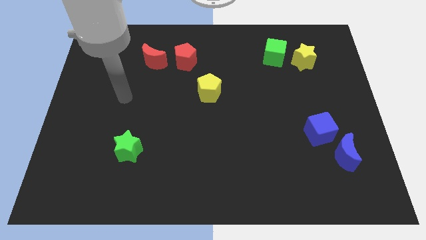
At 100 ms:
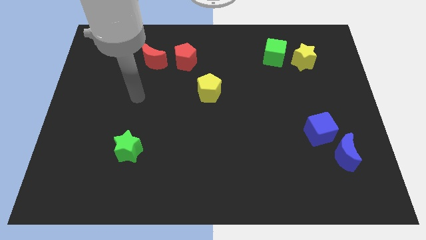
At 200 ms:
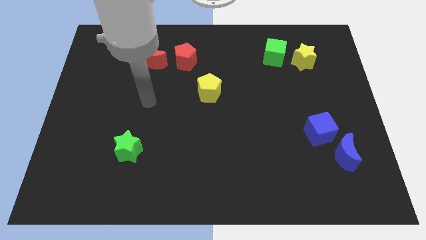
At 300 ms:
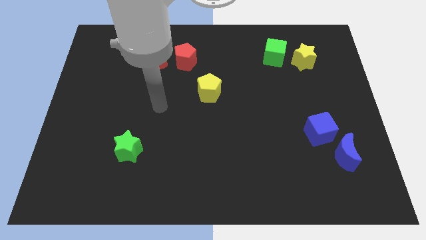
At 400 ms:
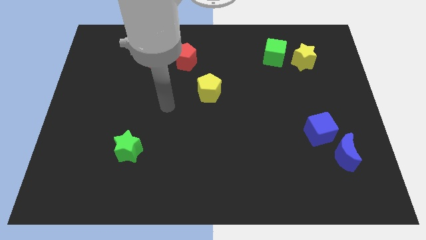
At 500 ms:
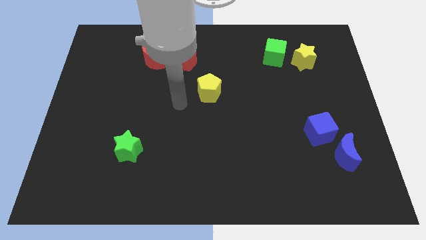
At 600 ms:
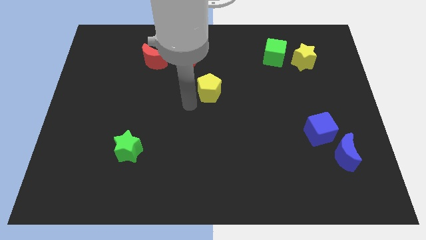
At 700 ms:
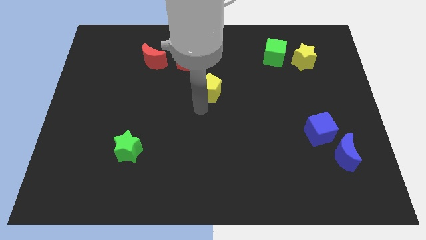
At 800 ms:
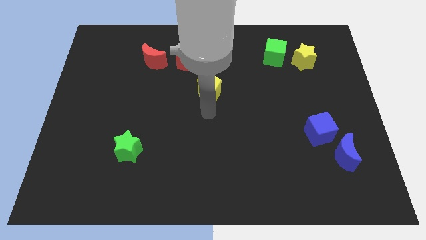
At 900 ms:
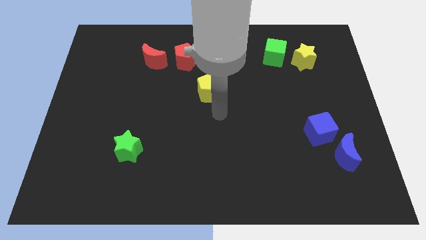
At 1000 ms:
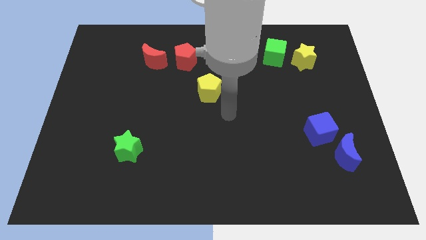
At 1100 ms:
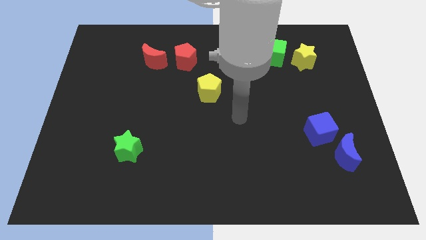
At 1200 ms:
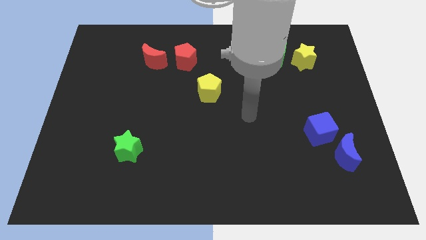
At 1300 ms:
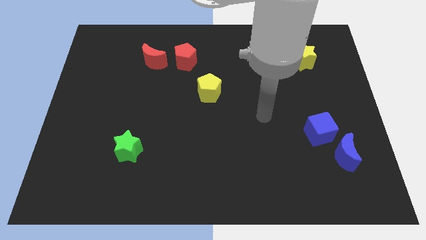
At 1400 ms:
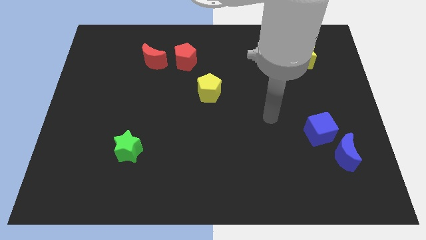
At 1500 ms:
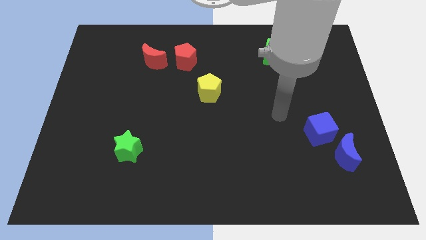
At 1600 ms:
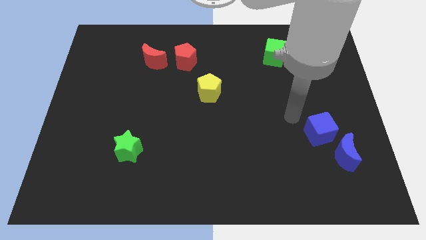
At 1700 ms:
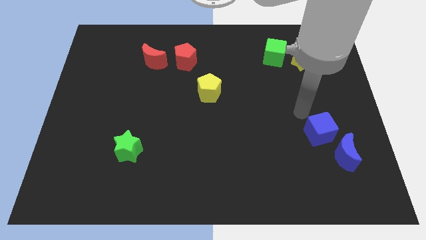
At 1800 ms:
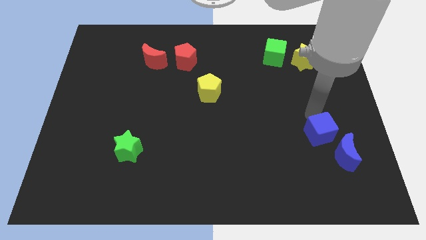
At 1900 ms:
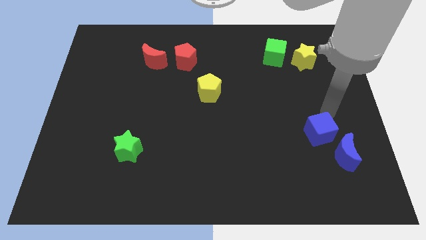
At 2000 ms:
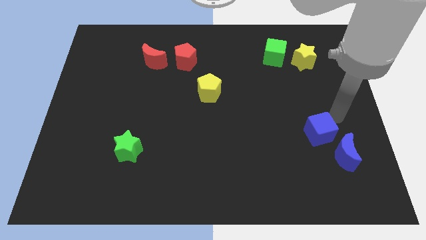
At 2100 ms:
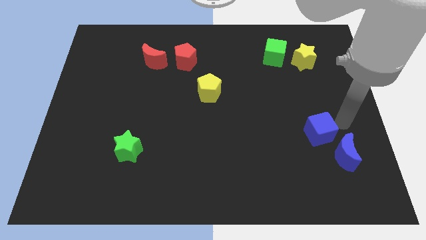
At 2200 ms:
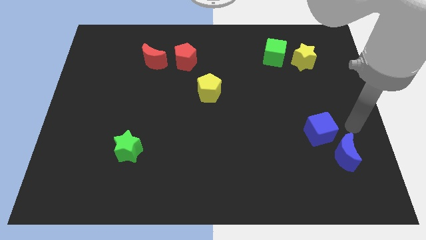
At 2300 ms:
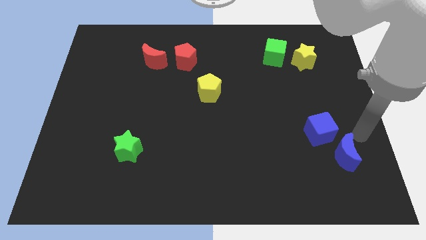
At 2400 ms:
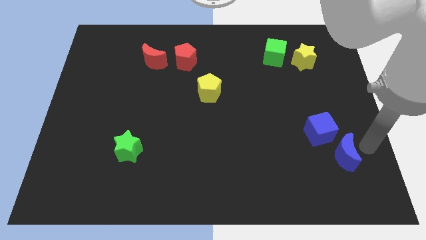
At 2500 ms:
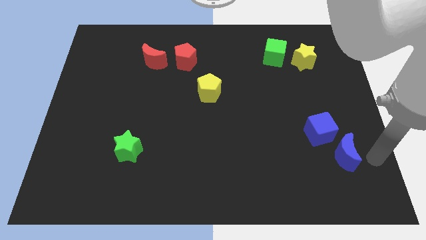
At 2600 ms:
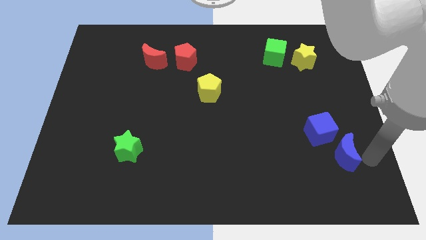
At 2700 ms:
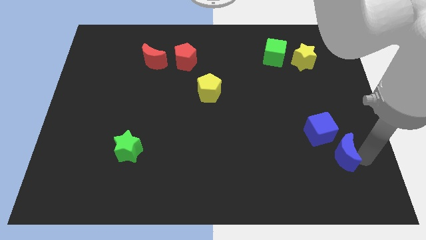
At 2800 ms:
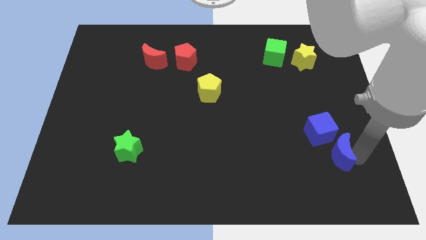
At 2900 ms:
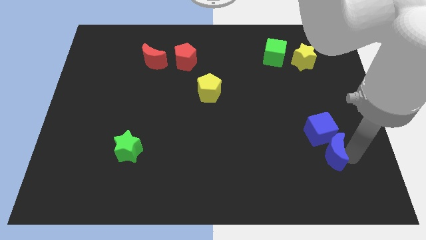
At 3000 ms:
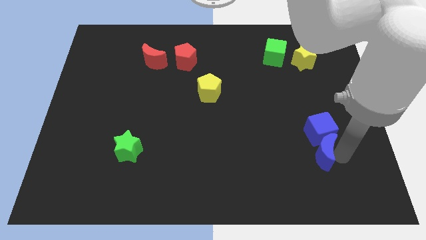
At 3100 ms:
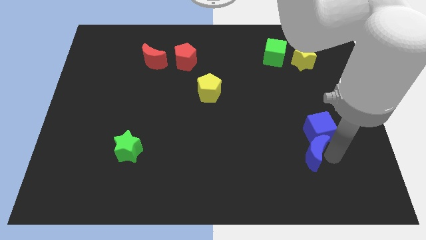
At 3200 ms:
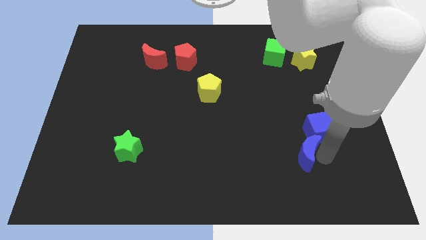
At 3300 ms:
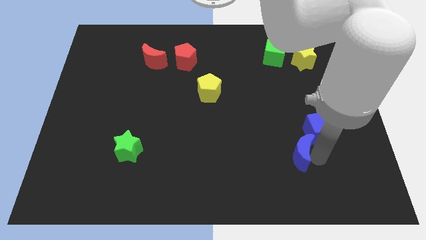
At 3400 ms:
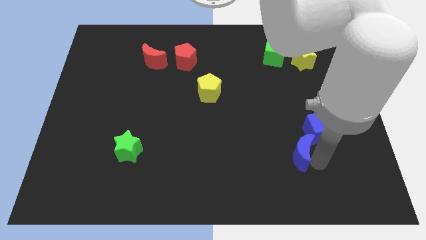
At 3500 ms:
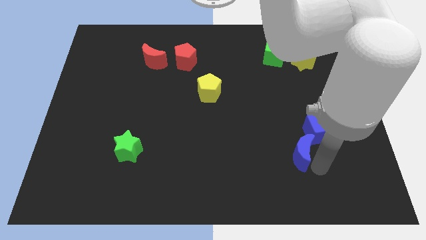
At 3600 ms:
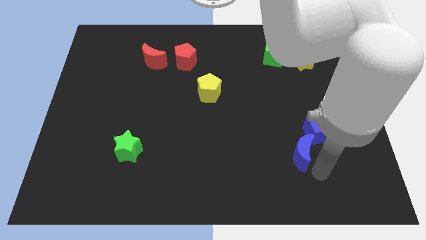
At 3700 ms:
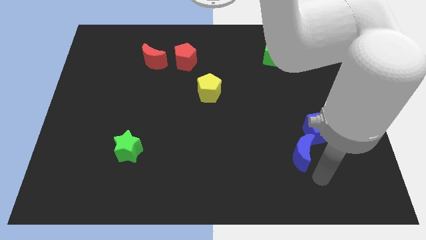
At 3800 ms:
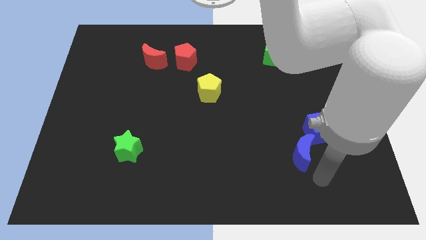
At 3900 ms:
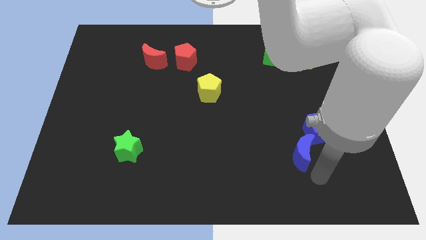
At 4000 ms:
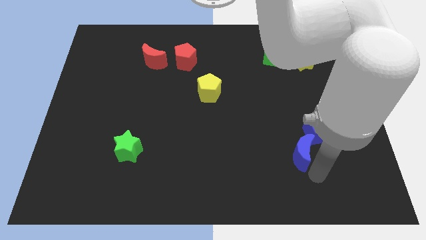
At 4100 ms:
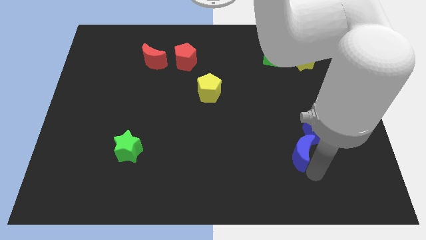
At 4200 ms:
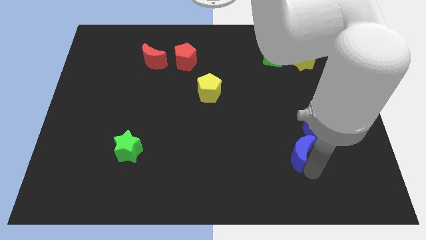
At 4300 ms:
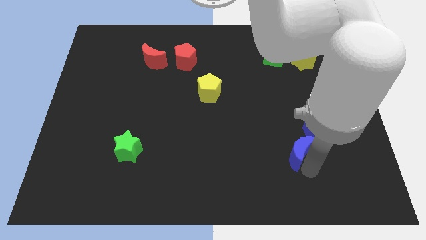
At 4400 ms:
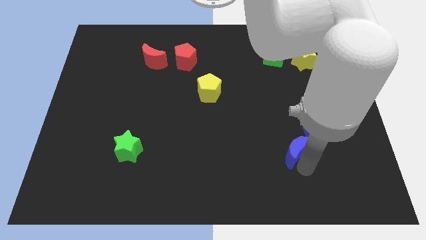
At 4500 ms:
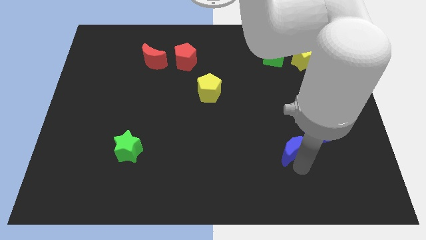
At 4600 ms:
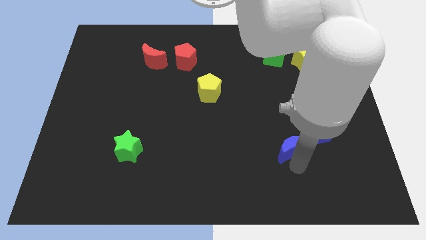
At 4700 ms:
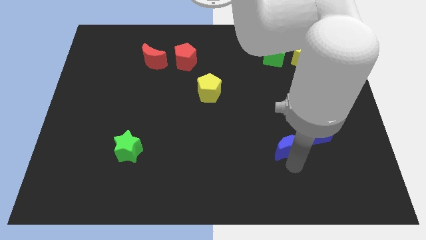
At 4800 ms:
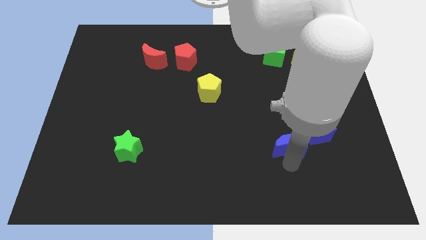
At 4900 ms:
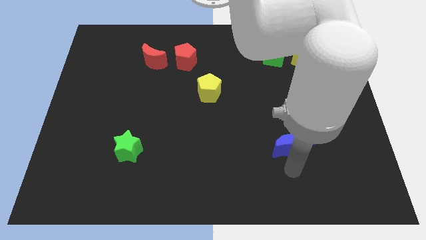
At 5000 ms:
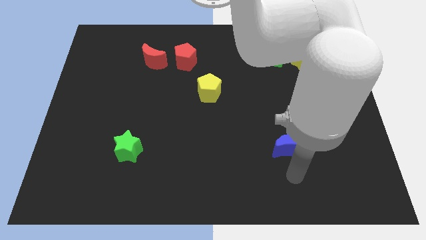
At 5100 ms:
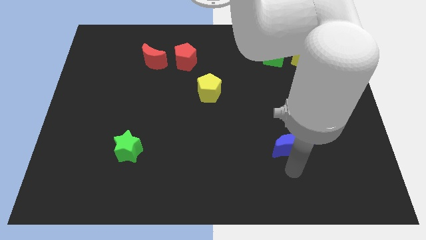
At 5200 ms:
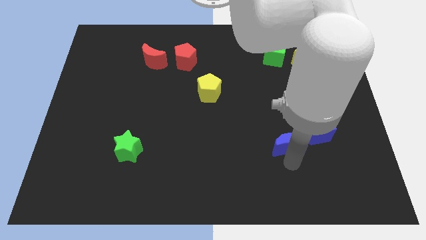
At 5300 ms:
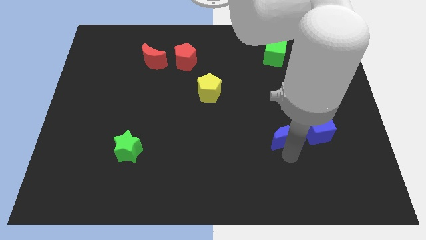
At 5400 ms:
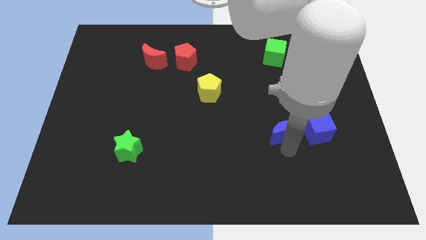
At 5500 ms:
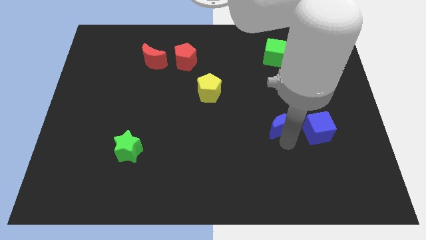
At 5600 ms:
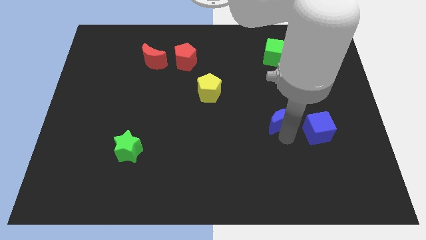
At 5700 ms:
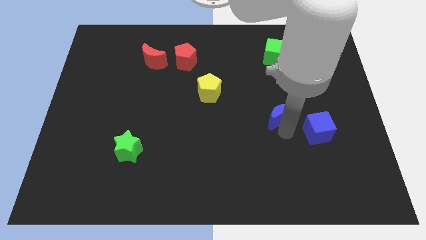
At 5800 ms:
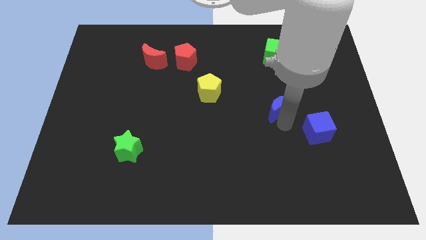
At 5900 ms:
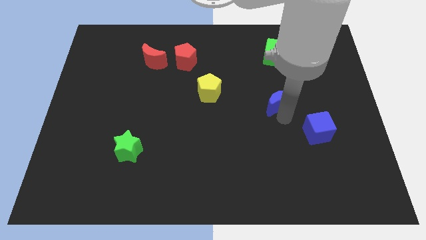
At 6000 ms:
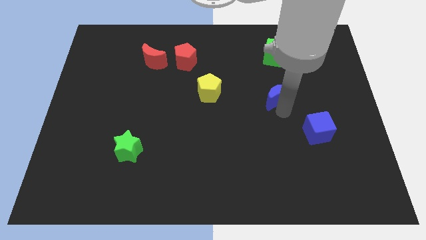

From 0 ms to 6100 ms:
push the blue moon diagonally upwards and left

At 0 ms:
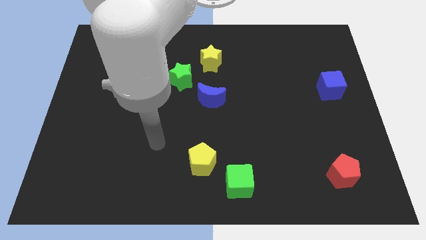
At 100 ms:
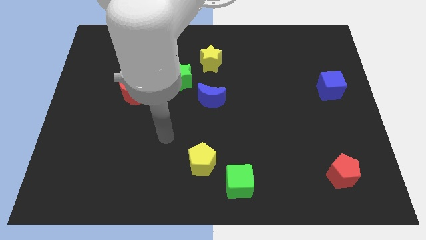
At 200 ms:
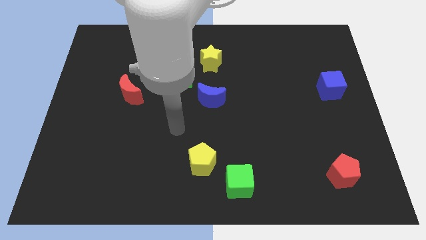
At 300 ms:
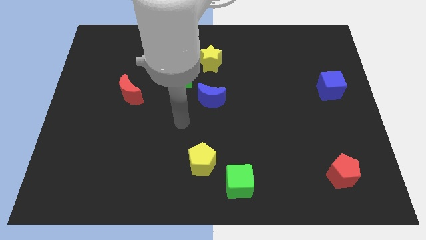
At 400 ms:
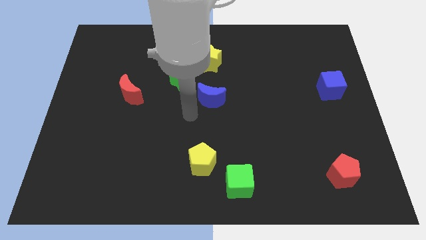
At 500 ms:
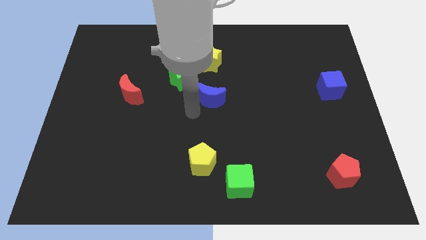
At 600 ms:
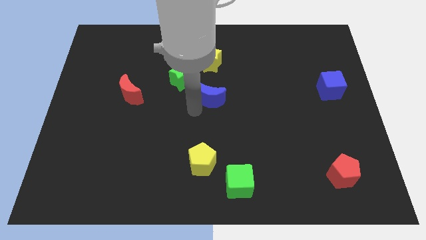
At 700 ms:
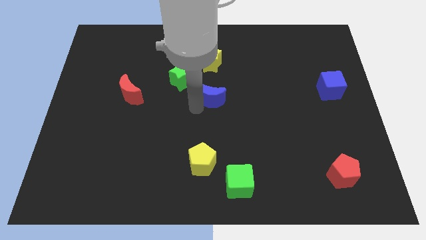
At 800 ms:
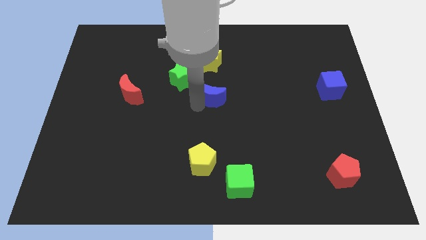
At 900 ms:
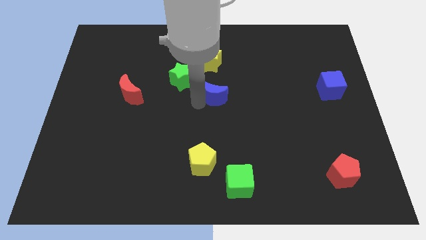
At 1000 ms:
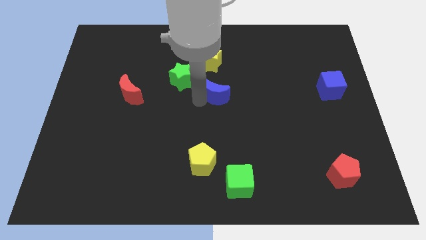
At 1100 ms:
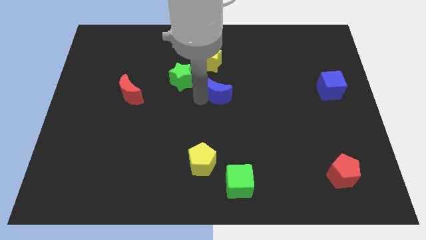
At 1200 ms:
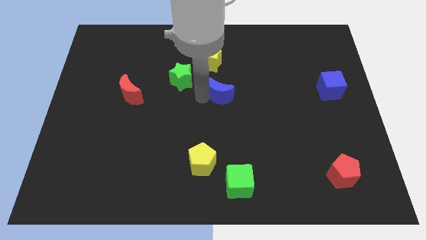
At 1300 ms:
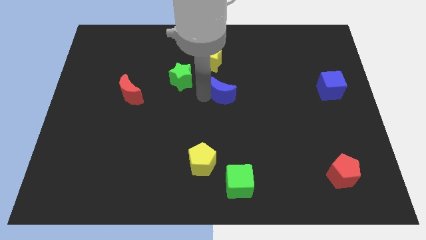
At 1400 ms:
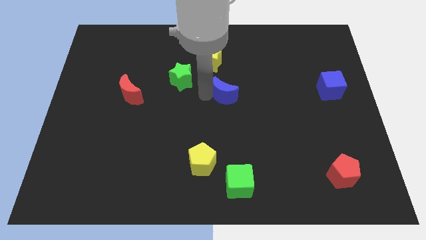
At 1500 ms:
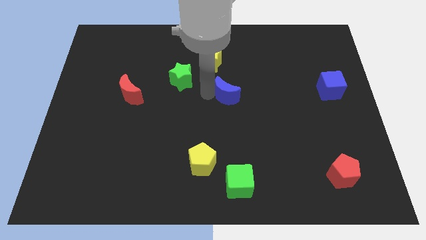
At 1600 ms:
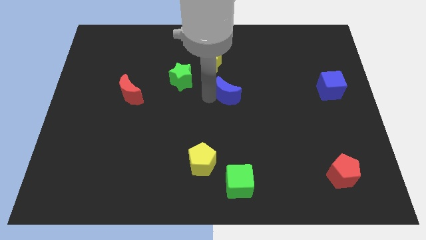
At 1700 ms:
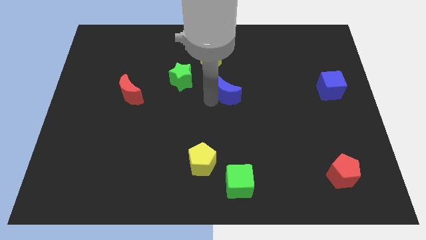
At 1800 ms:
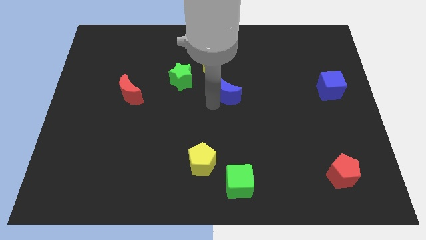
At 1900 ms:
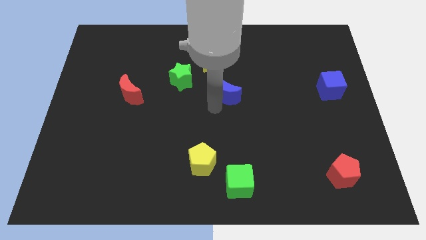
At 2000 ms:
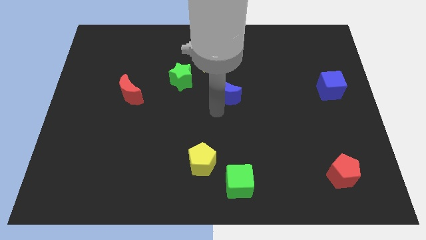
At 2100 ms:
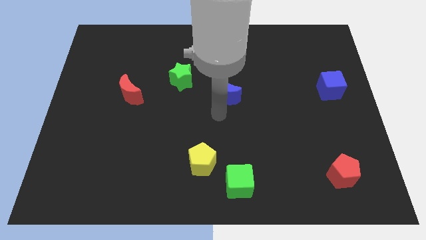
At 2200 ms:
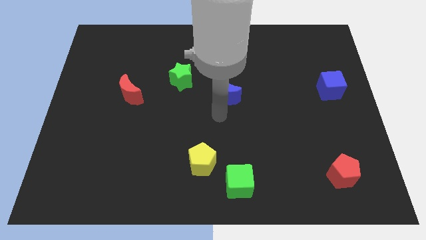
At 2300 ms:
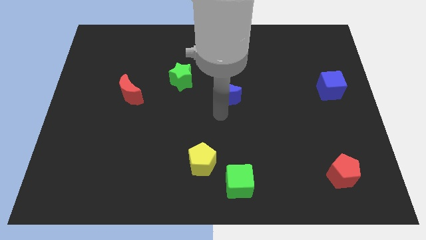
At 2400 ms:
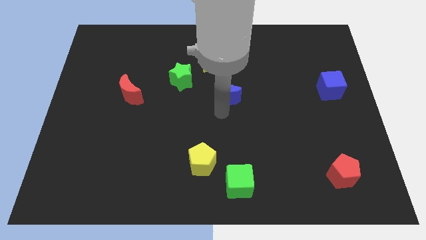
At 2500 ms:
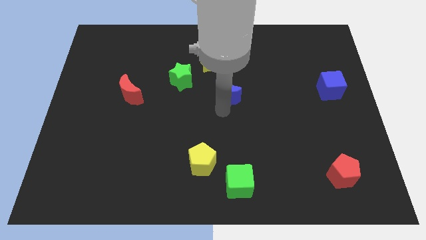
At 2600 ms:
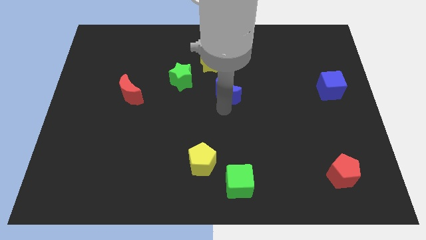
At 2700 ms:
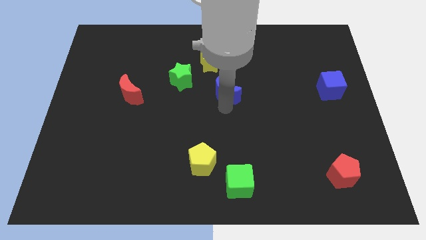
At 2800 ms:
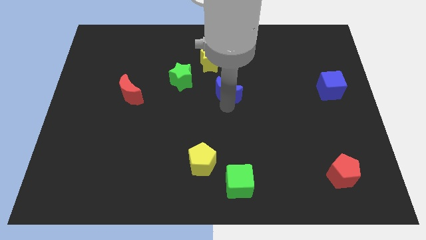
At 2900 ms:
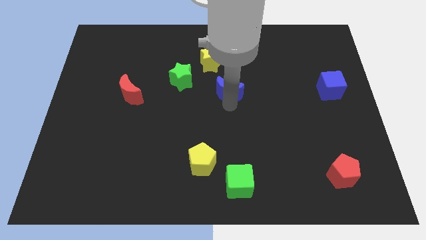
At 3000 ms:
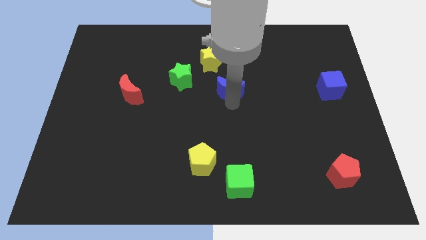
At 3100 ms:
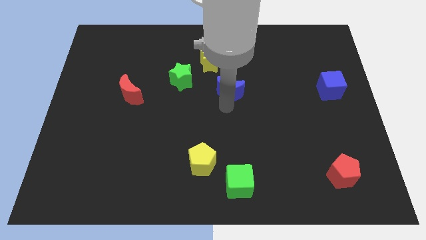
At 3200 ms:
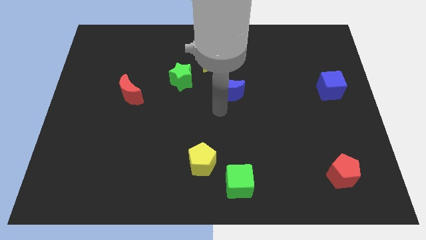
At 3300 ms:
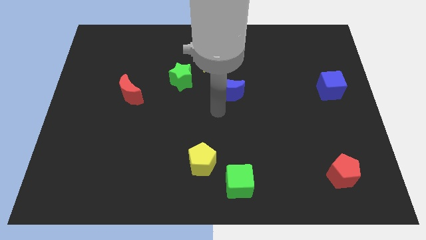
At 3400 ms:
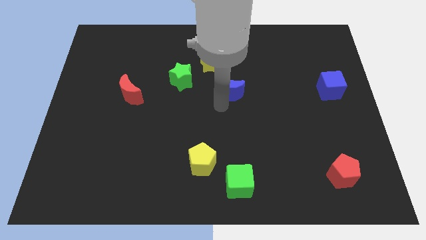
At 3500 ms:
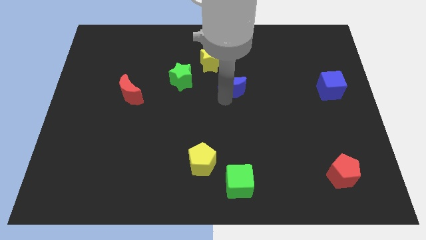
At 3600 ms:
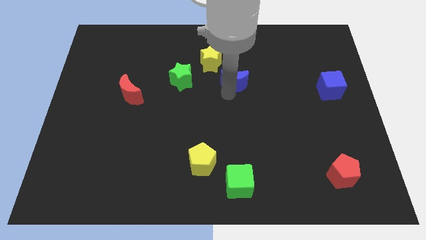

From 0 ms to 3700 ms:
push the blue moon up and to the right a little bit
